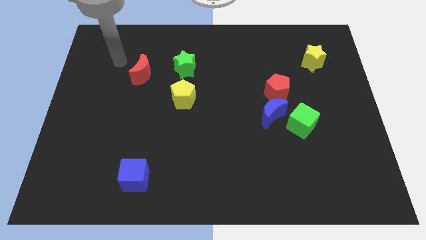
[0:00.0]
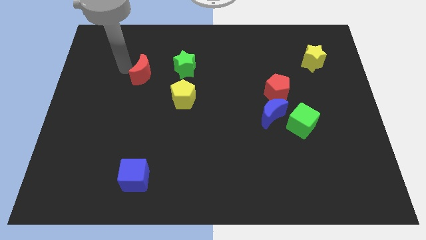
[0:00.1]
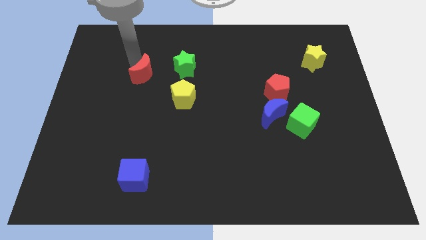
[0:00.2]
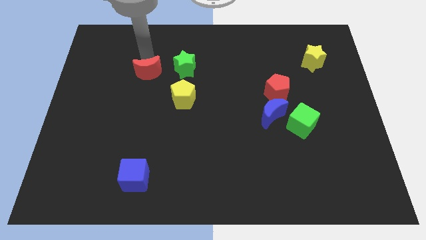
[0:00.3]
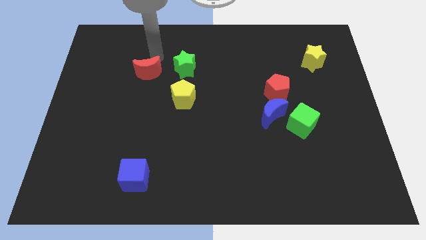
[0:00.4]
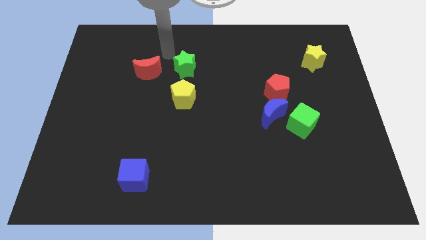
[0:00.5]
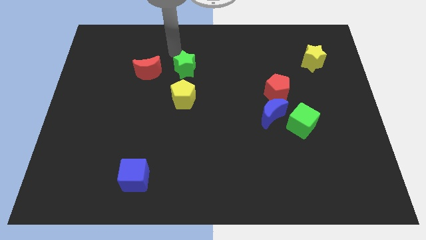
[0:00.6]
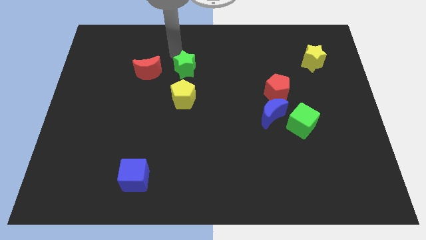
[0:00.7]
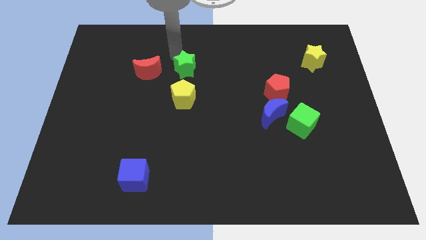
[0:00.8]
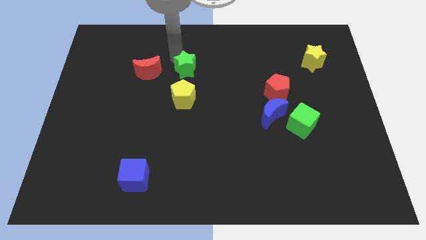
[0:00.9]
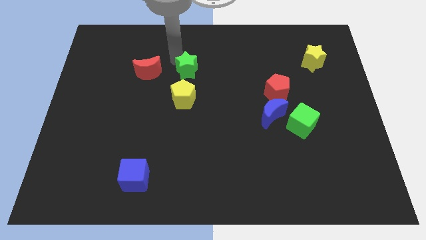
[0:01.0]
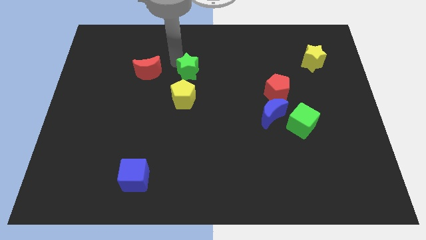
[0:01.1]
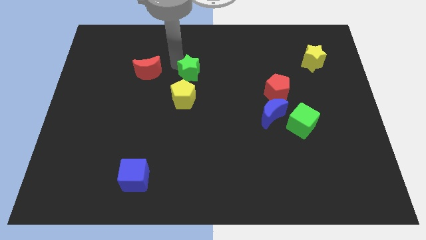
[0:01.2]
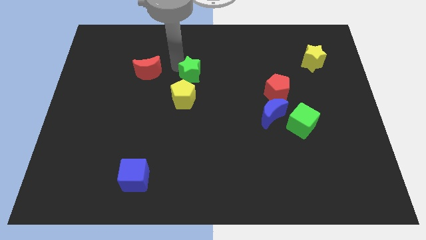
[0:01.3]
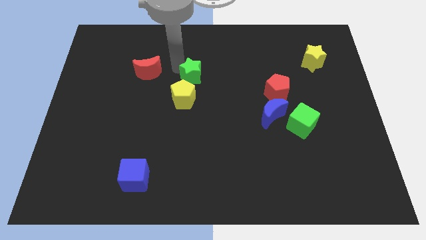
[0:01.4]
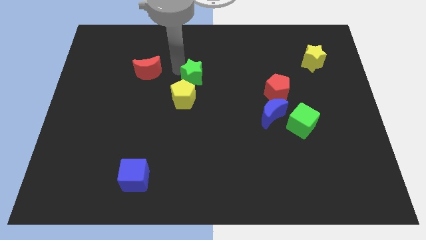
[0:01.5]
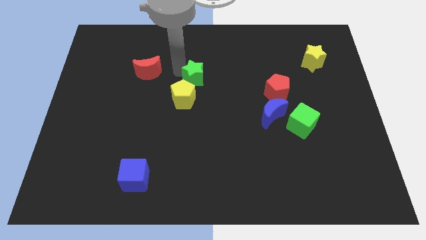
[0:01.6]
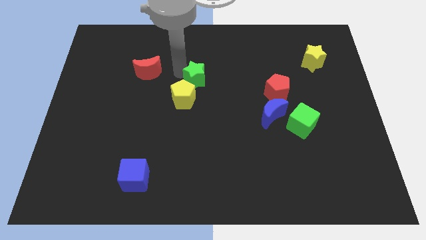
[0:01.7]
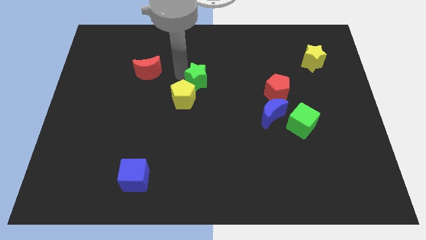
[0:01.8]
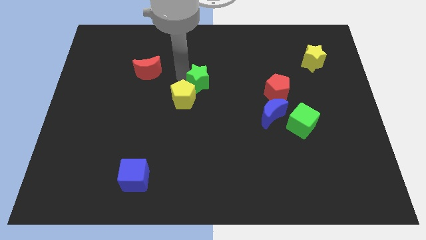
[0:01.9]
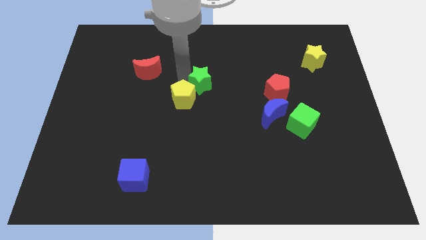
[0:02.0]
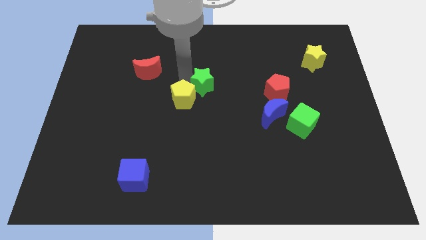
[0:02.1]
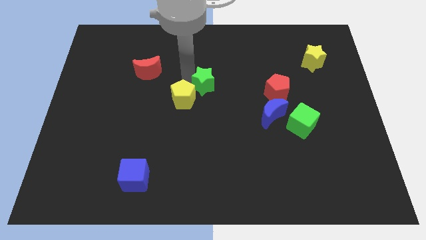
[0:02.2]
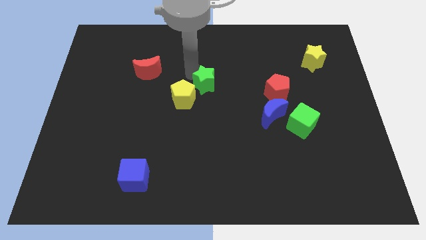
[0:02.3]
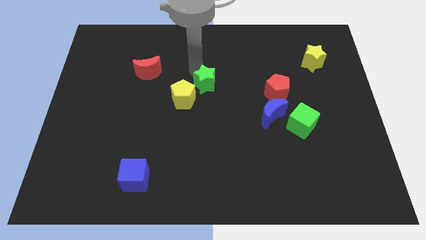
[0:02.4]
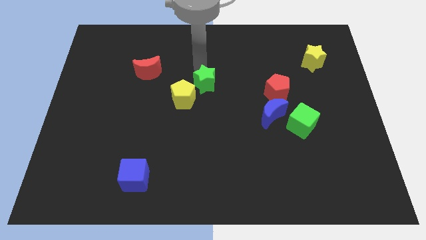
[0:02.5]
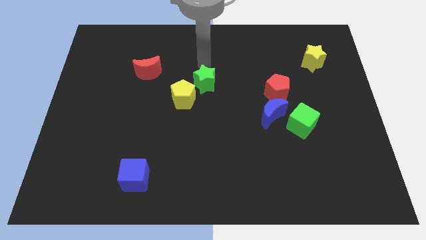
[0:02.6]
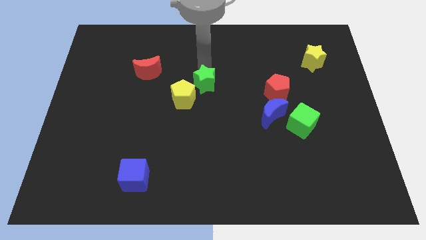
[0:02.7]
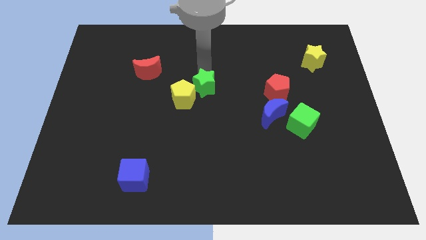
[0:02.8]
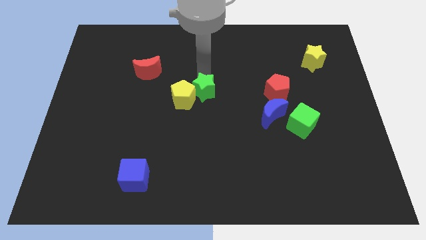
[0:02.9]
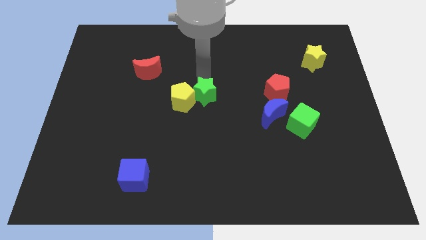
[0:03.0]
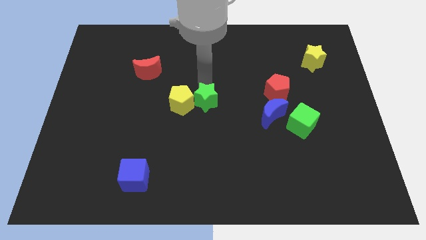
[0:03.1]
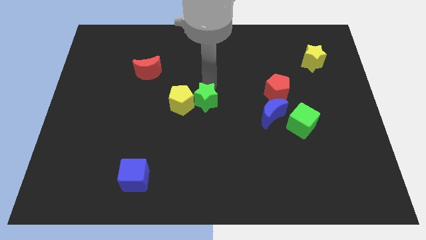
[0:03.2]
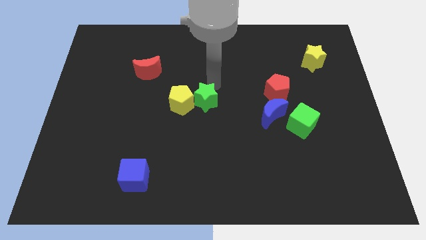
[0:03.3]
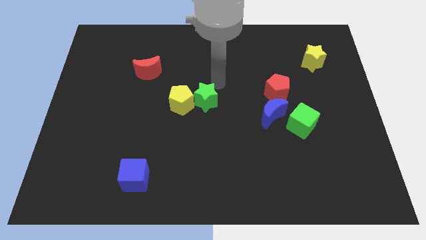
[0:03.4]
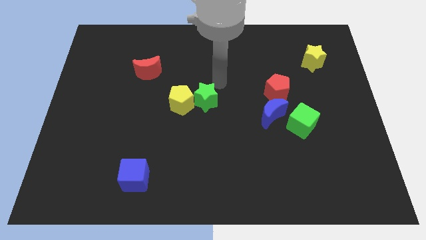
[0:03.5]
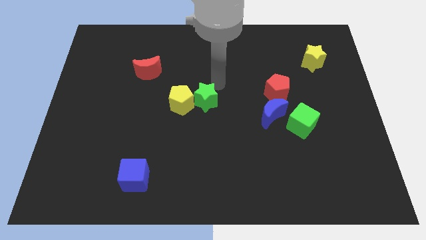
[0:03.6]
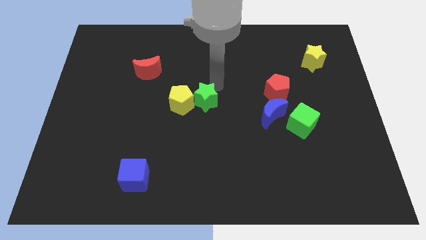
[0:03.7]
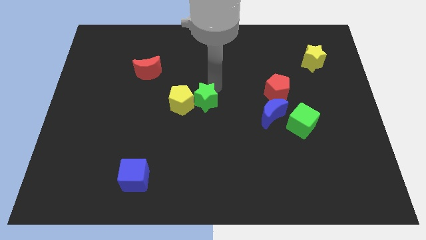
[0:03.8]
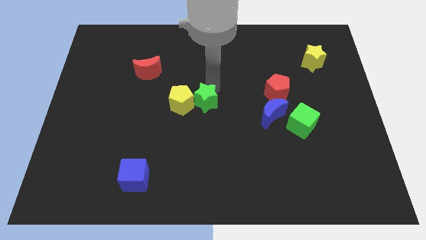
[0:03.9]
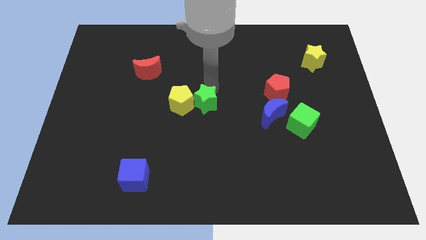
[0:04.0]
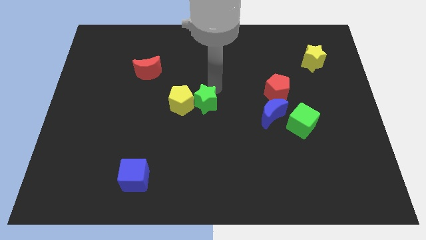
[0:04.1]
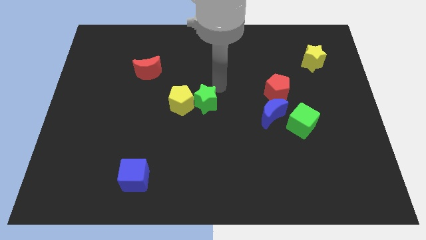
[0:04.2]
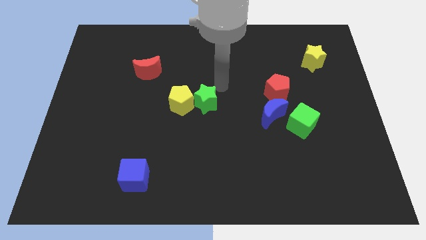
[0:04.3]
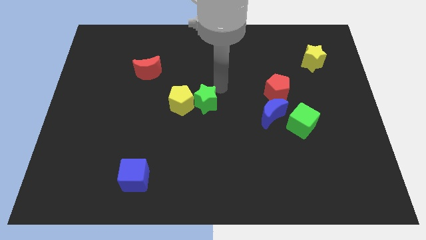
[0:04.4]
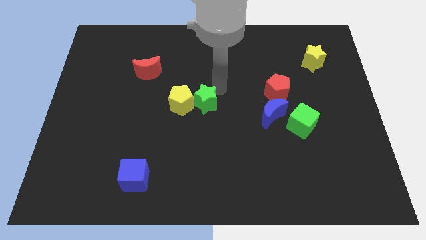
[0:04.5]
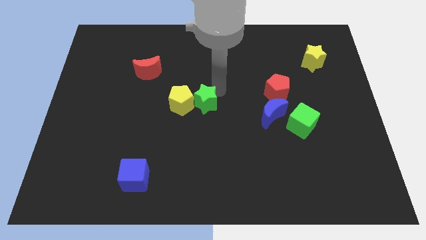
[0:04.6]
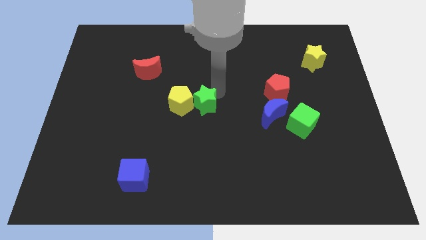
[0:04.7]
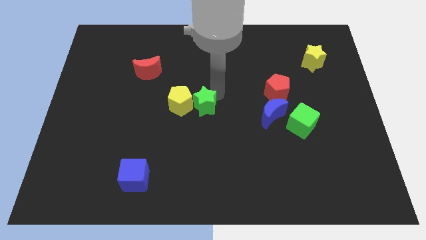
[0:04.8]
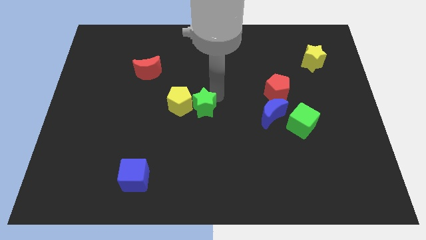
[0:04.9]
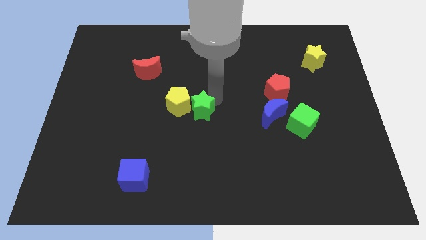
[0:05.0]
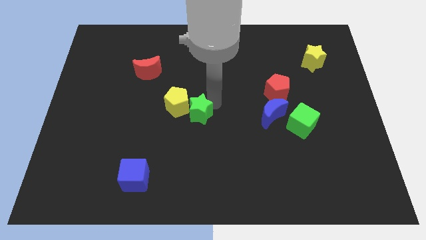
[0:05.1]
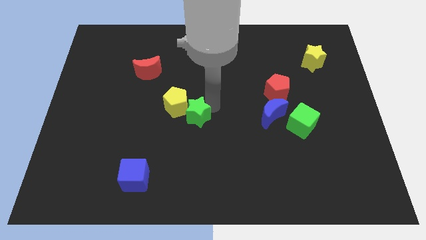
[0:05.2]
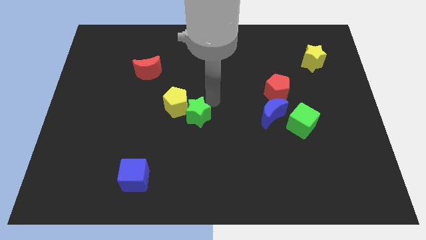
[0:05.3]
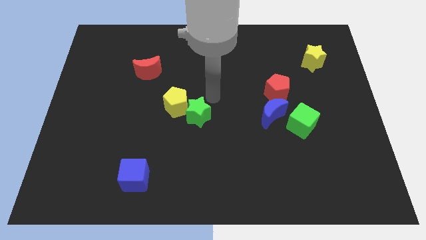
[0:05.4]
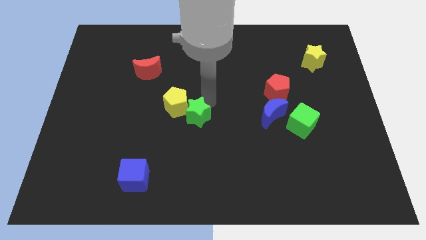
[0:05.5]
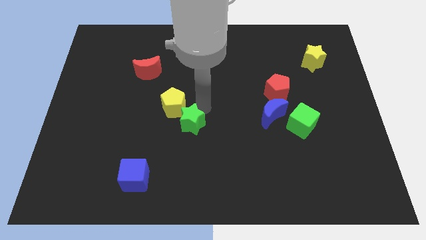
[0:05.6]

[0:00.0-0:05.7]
push the green star to the bottom of the yellow pentagon
